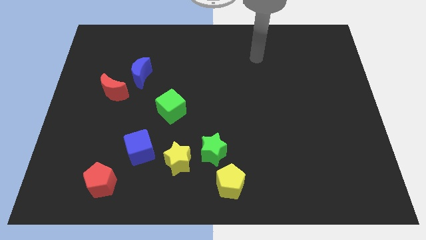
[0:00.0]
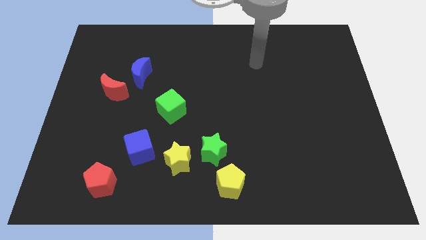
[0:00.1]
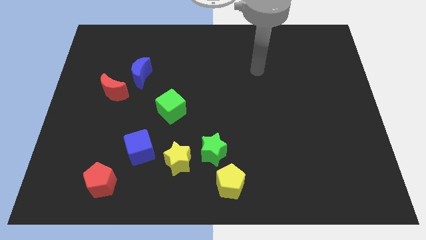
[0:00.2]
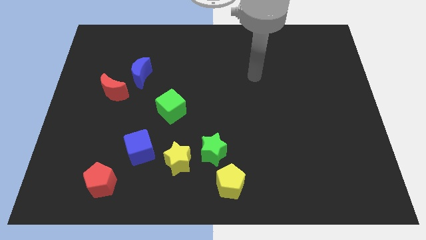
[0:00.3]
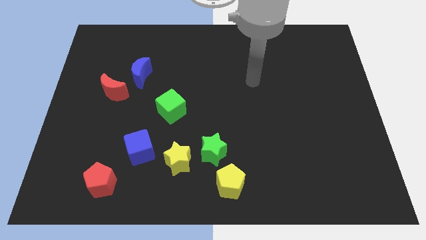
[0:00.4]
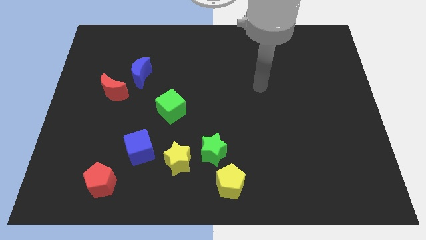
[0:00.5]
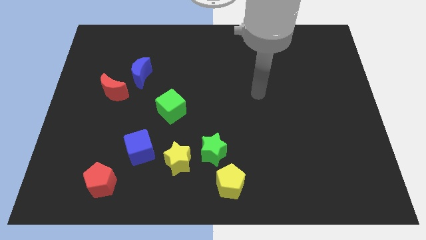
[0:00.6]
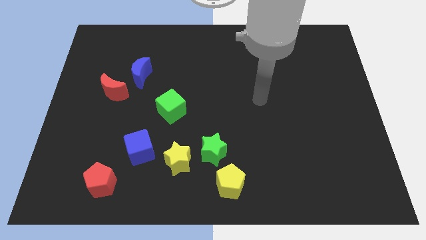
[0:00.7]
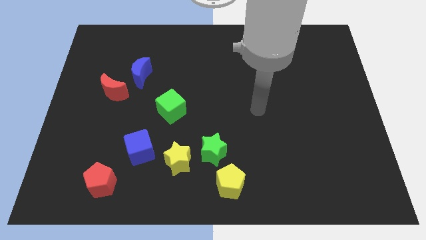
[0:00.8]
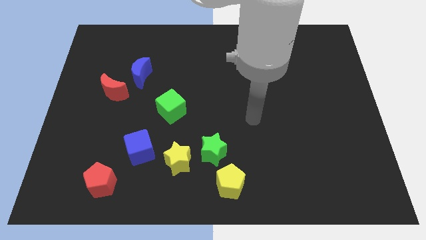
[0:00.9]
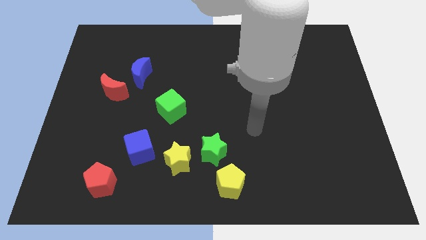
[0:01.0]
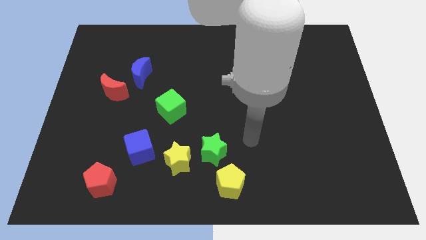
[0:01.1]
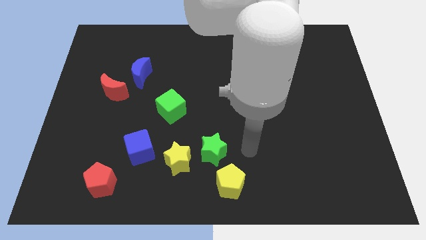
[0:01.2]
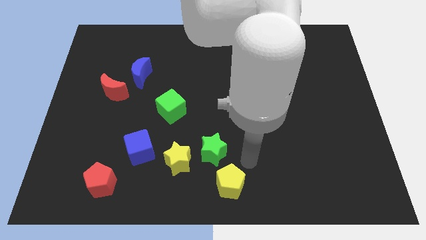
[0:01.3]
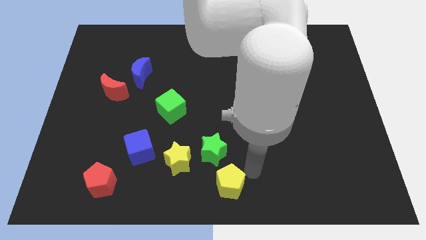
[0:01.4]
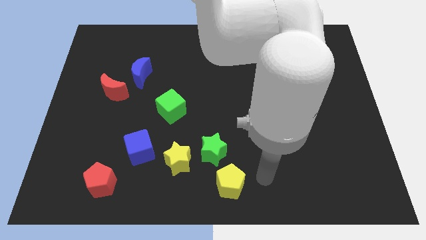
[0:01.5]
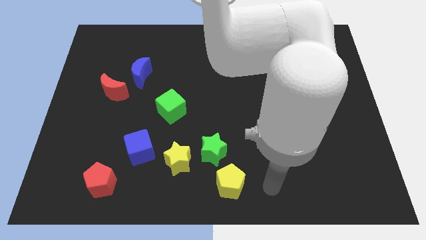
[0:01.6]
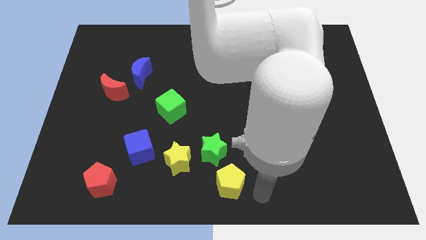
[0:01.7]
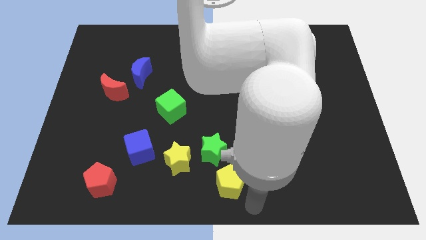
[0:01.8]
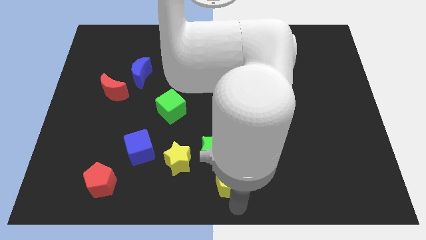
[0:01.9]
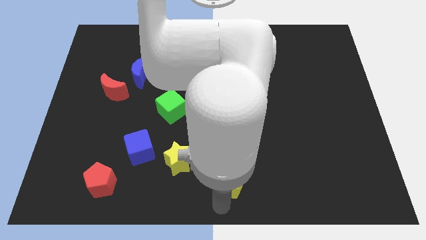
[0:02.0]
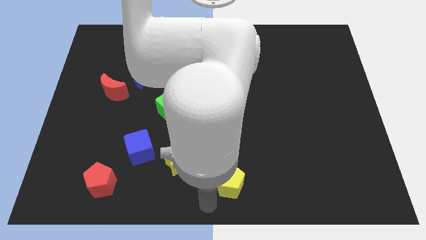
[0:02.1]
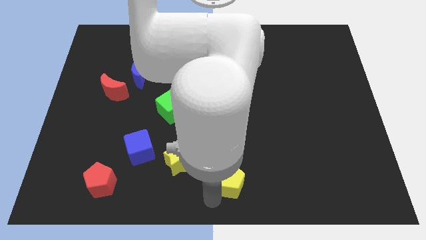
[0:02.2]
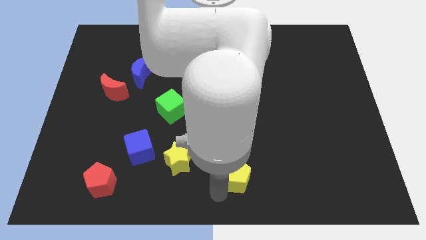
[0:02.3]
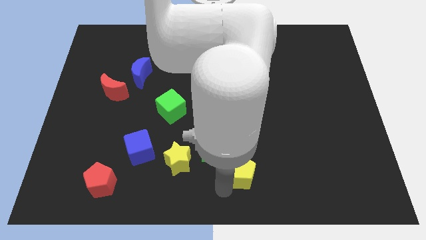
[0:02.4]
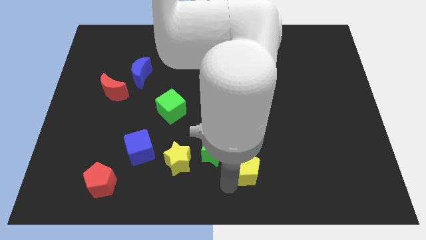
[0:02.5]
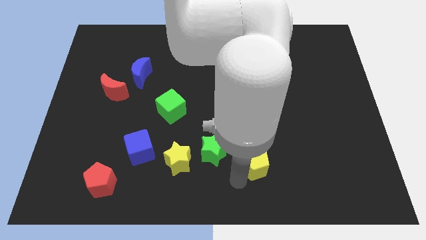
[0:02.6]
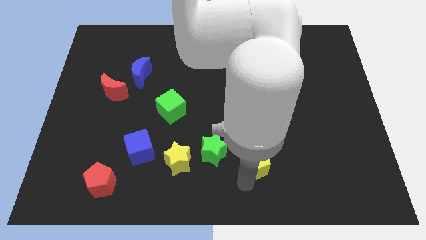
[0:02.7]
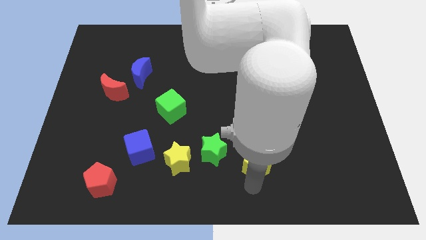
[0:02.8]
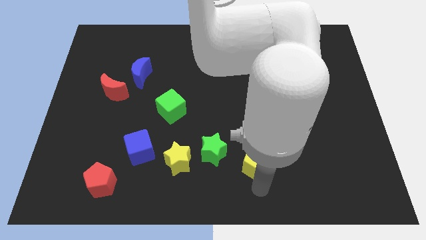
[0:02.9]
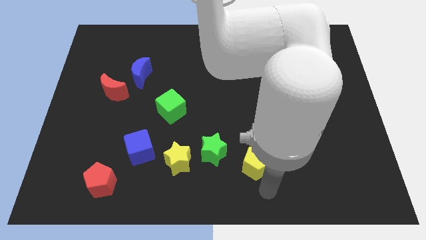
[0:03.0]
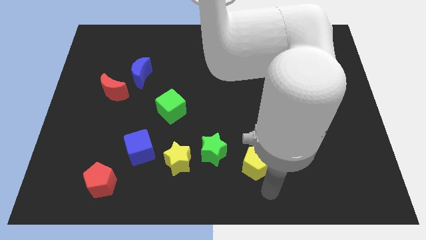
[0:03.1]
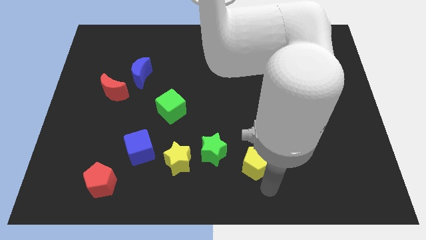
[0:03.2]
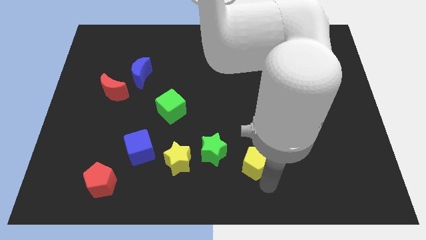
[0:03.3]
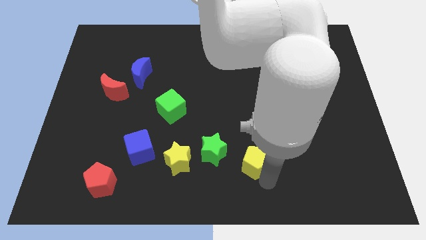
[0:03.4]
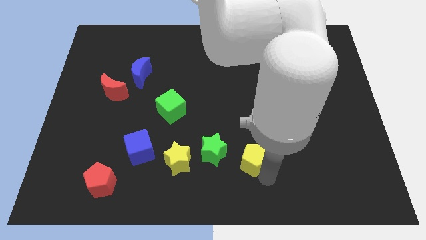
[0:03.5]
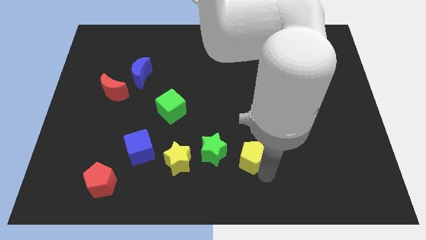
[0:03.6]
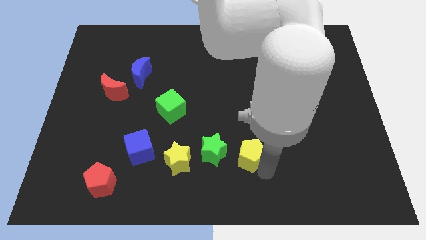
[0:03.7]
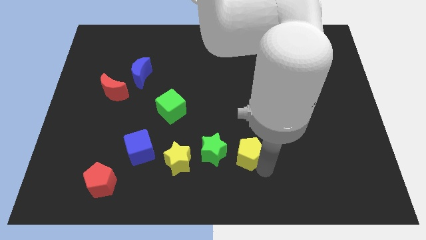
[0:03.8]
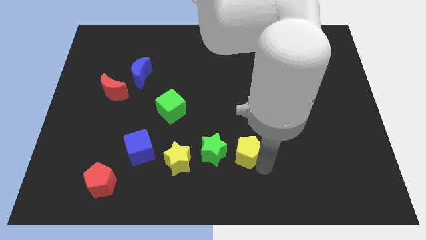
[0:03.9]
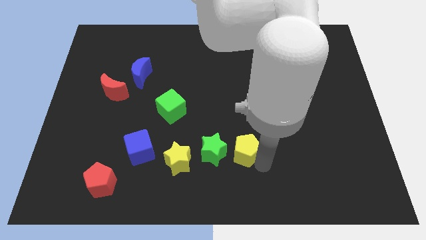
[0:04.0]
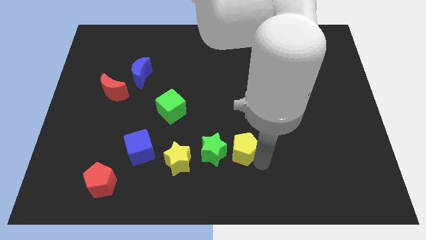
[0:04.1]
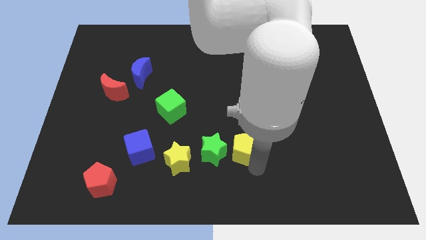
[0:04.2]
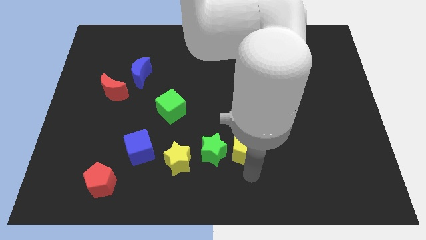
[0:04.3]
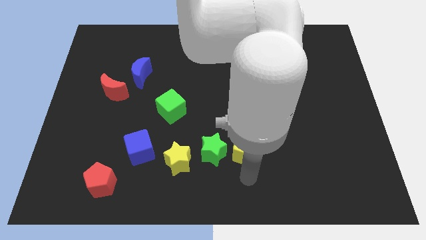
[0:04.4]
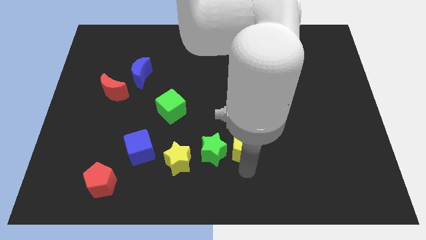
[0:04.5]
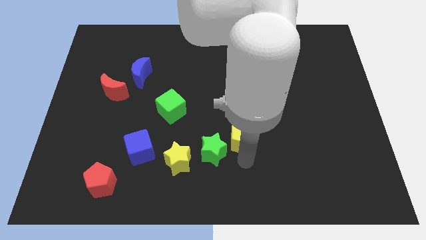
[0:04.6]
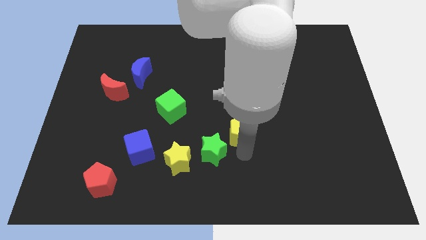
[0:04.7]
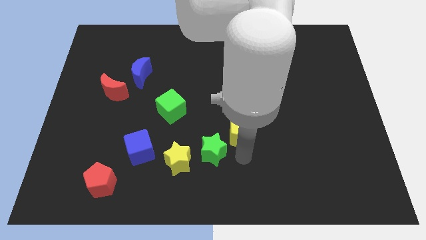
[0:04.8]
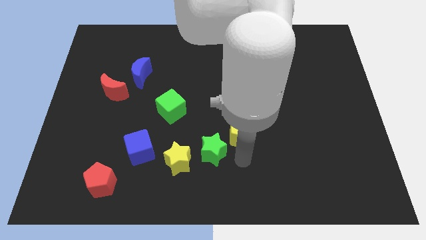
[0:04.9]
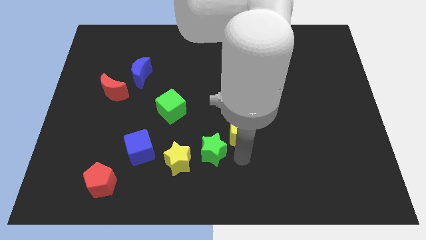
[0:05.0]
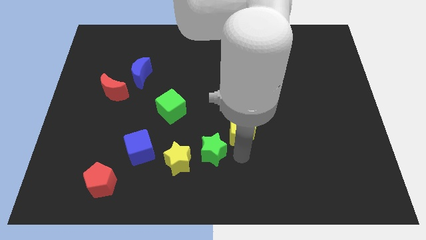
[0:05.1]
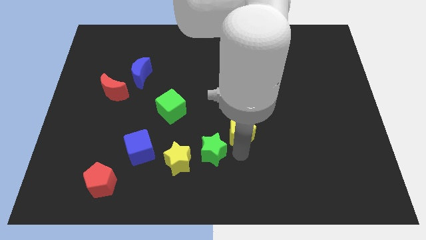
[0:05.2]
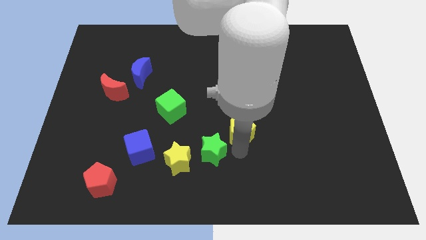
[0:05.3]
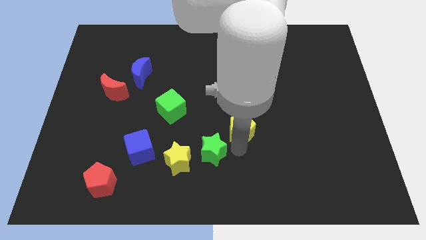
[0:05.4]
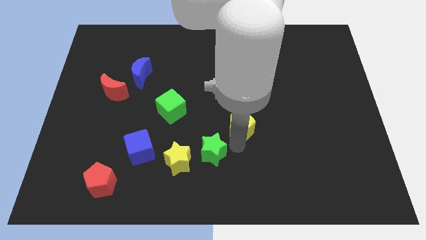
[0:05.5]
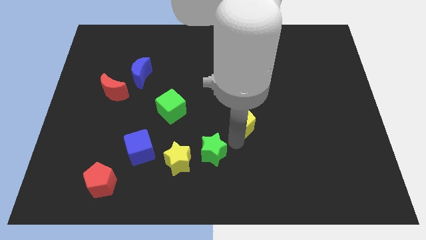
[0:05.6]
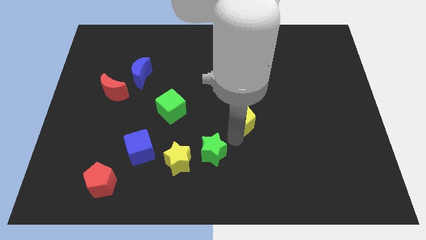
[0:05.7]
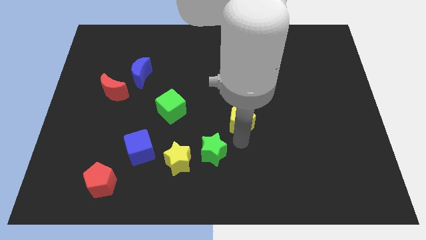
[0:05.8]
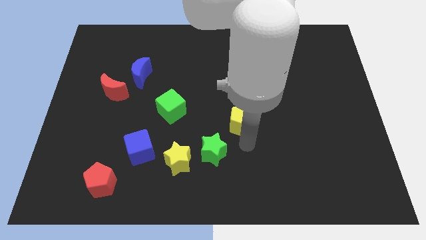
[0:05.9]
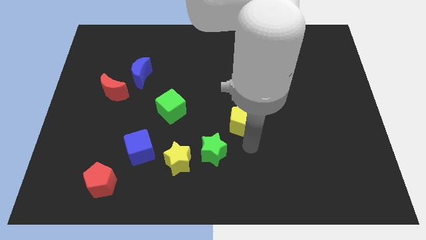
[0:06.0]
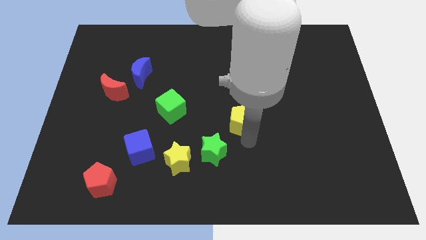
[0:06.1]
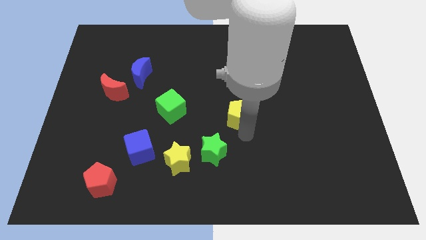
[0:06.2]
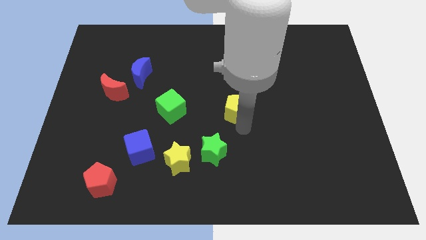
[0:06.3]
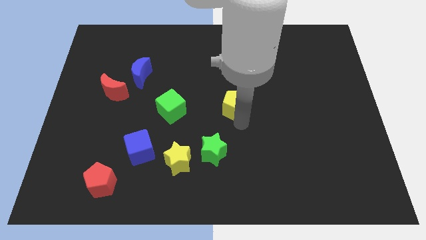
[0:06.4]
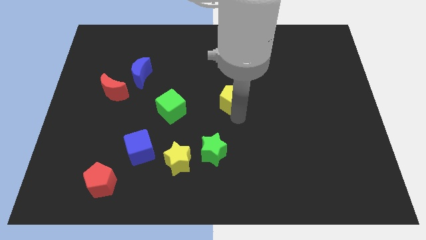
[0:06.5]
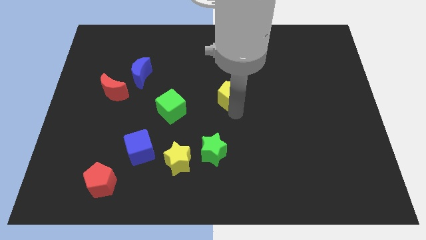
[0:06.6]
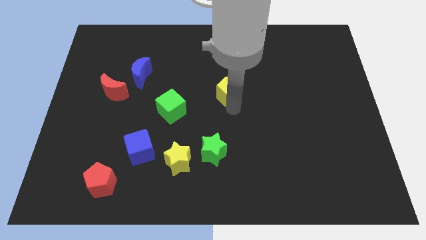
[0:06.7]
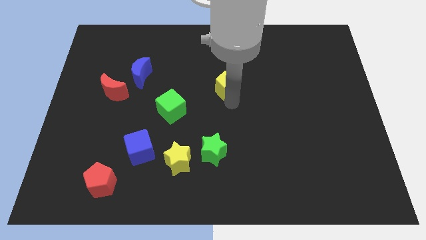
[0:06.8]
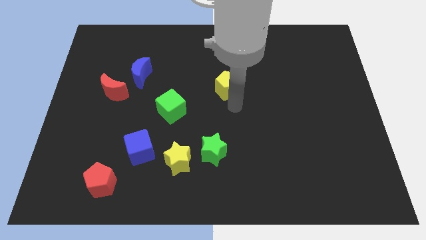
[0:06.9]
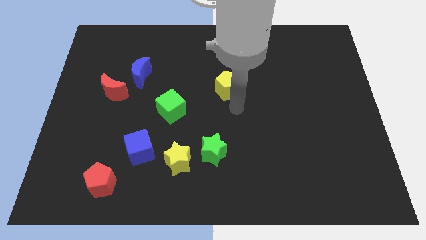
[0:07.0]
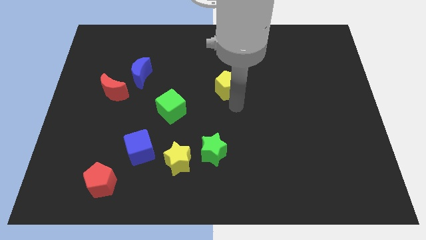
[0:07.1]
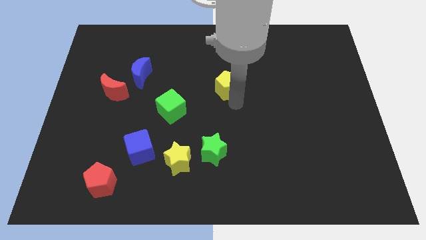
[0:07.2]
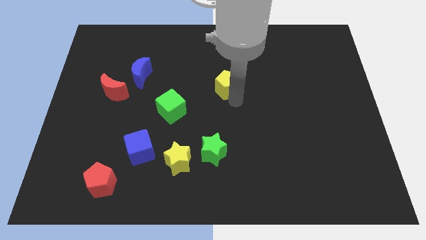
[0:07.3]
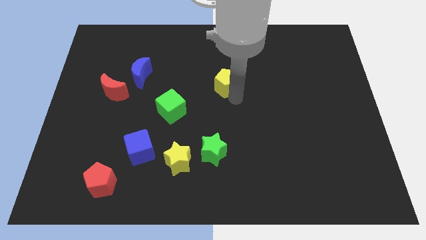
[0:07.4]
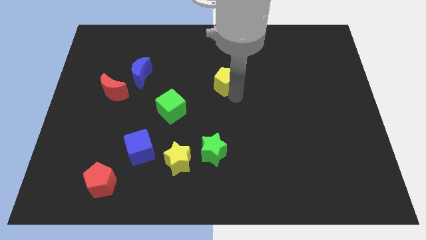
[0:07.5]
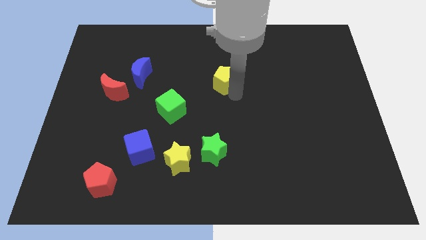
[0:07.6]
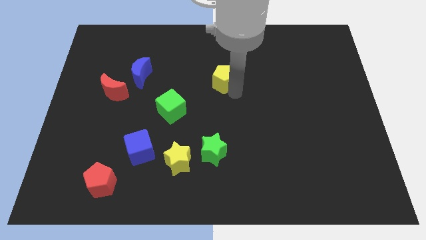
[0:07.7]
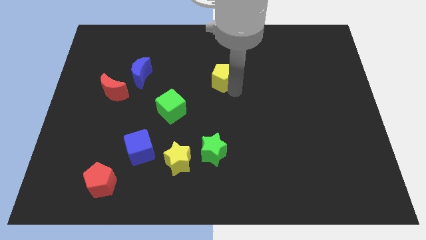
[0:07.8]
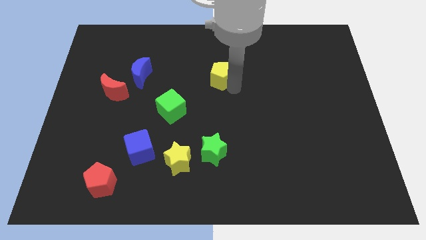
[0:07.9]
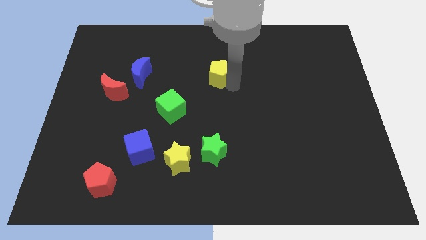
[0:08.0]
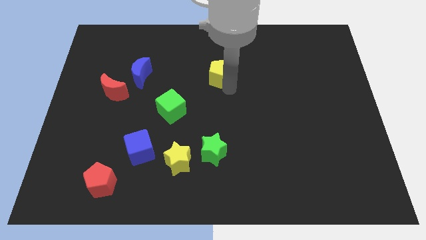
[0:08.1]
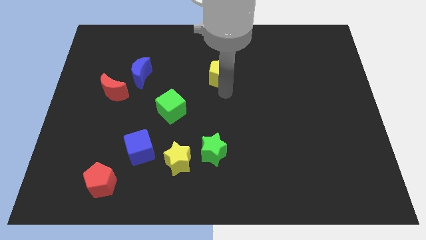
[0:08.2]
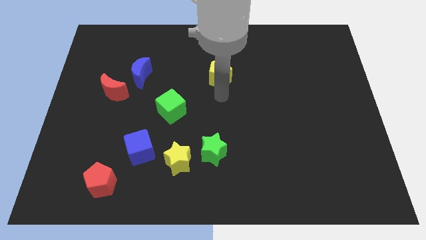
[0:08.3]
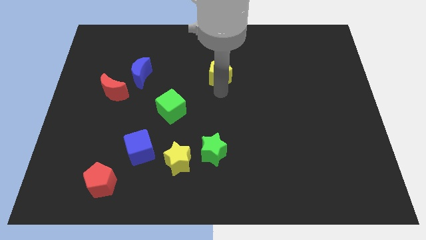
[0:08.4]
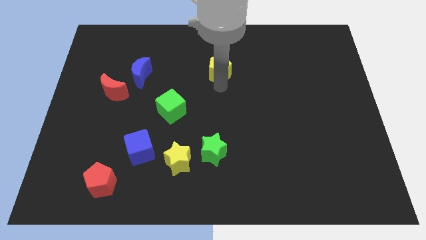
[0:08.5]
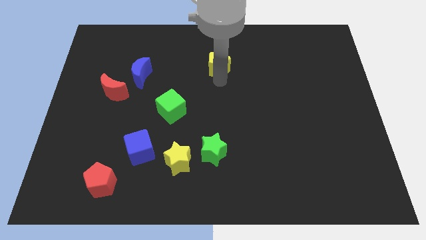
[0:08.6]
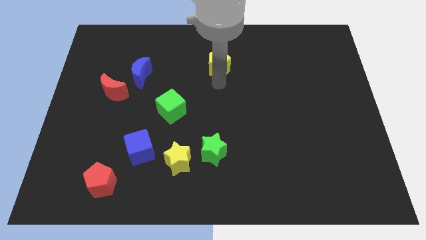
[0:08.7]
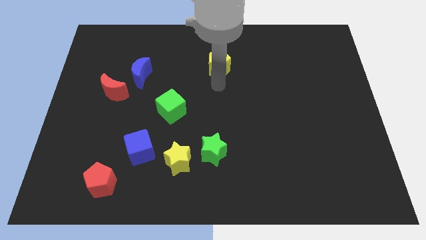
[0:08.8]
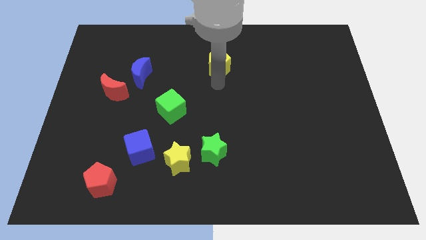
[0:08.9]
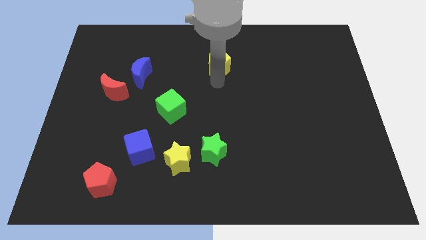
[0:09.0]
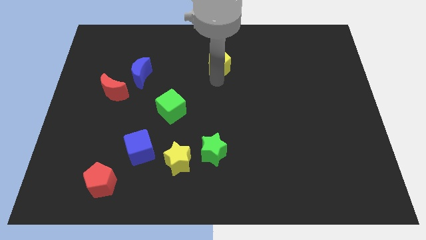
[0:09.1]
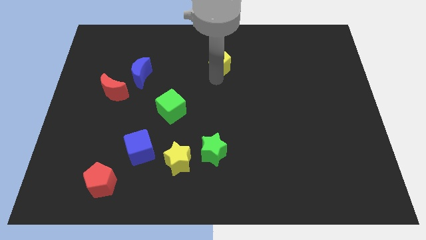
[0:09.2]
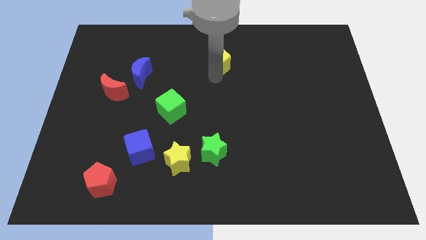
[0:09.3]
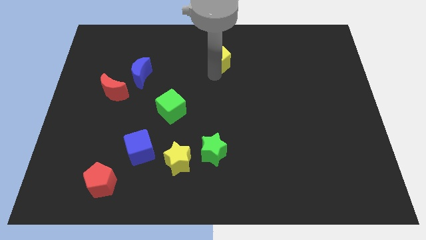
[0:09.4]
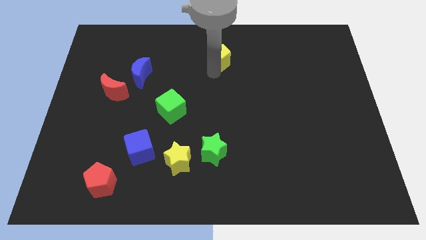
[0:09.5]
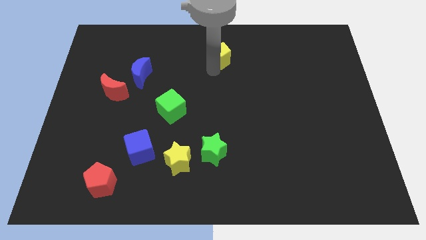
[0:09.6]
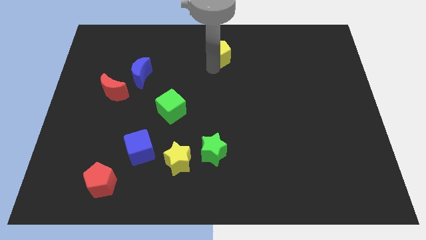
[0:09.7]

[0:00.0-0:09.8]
slide the yellow pentagon to the top side
